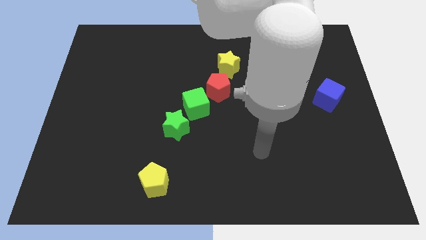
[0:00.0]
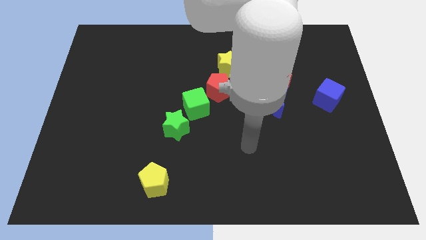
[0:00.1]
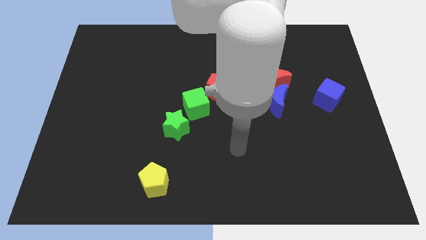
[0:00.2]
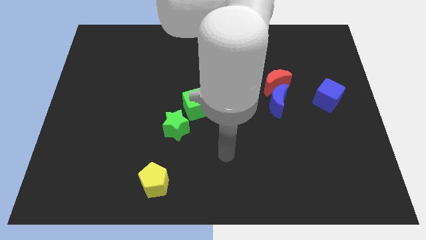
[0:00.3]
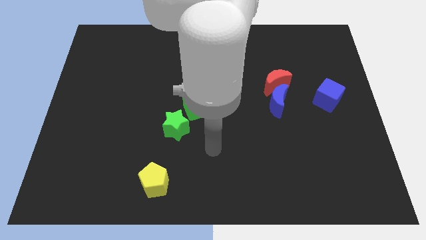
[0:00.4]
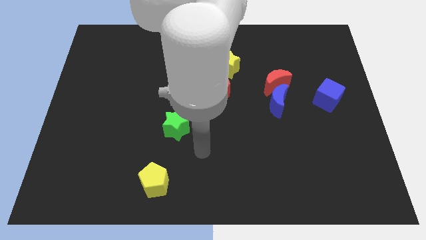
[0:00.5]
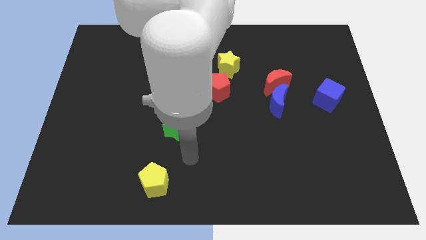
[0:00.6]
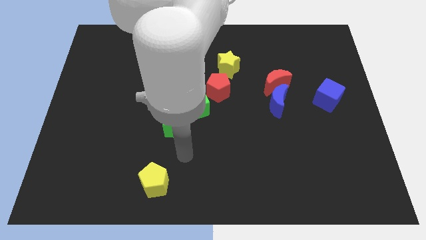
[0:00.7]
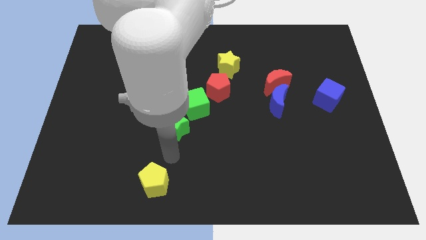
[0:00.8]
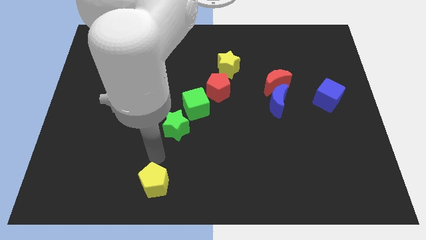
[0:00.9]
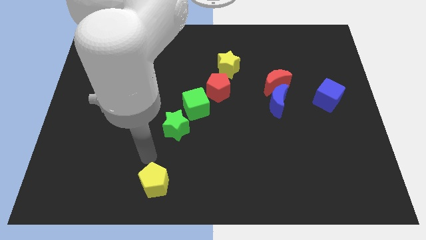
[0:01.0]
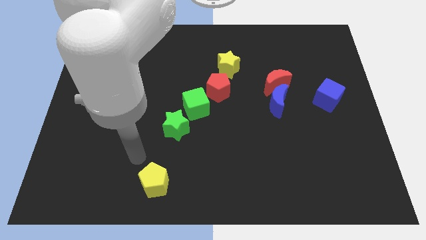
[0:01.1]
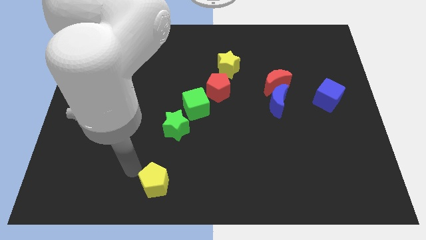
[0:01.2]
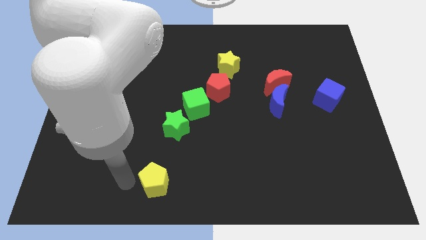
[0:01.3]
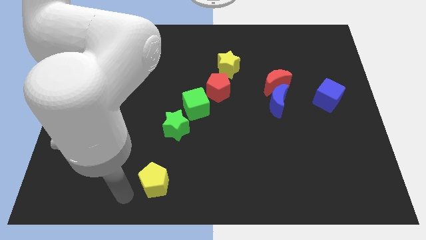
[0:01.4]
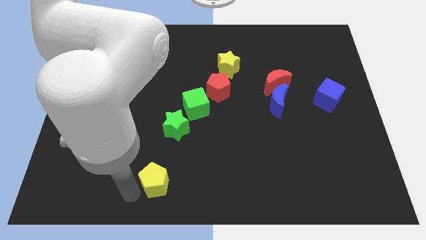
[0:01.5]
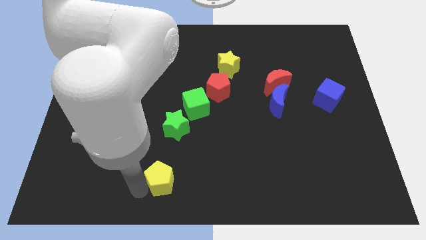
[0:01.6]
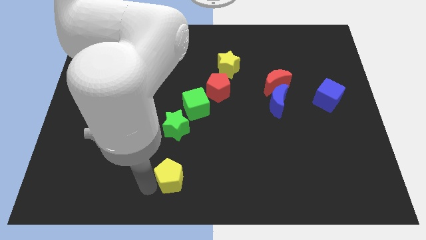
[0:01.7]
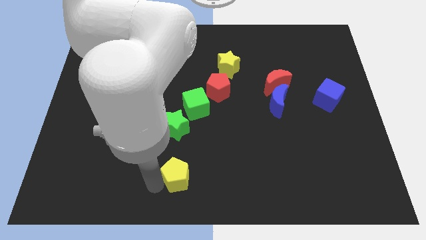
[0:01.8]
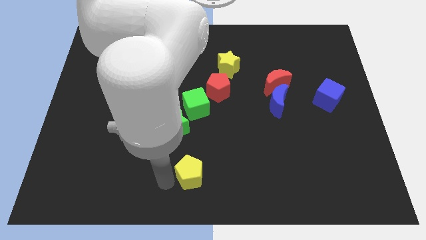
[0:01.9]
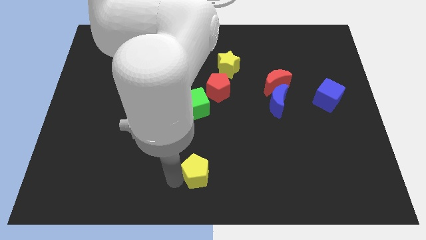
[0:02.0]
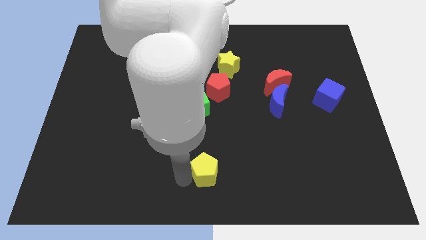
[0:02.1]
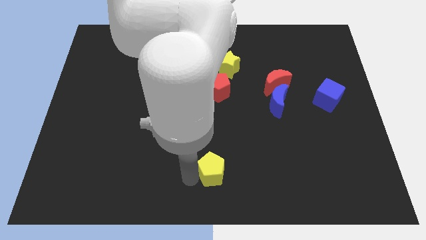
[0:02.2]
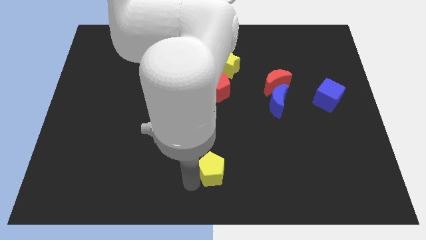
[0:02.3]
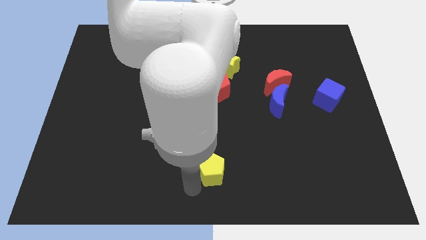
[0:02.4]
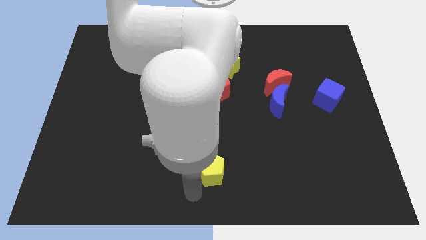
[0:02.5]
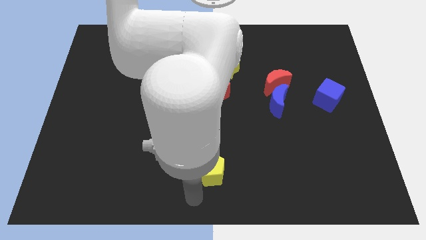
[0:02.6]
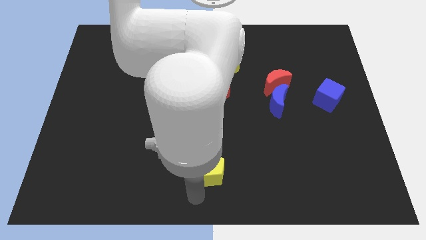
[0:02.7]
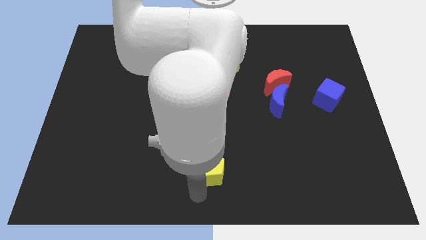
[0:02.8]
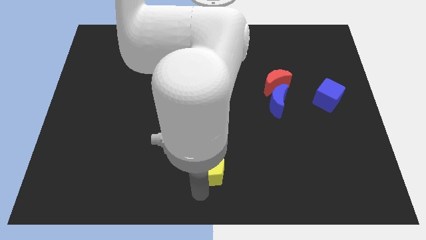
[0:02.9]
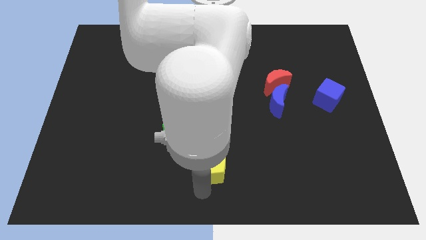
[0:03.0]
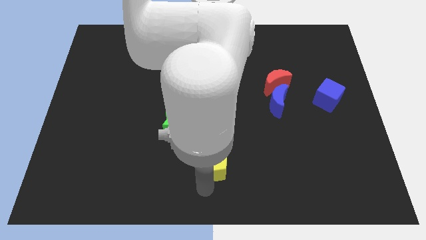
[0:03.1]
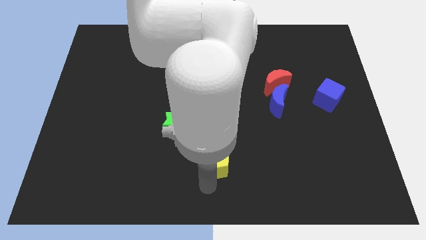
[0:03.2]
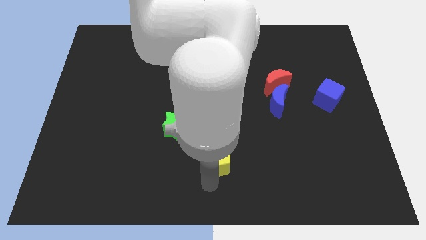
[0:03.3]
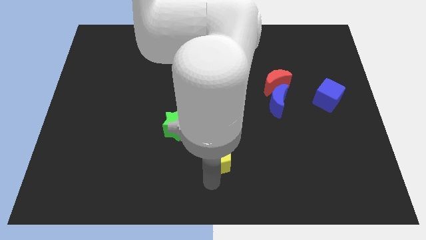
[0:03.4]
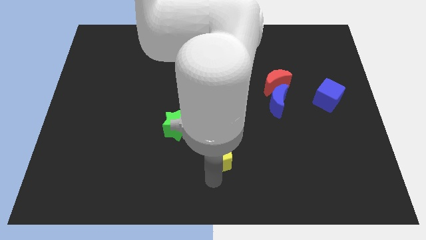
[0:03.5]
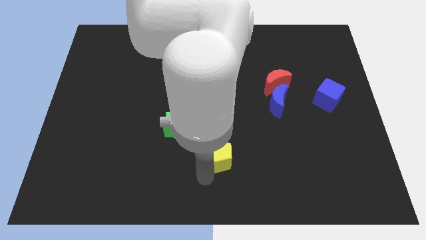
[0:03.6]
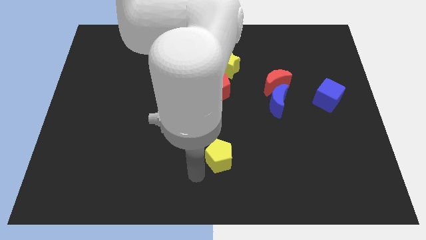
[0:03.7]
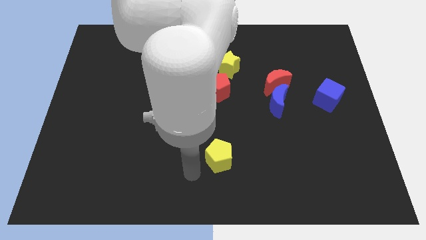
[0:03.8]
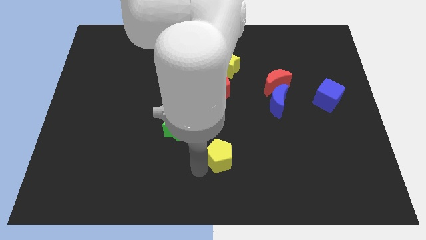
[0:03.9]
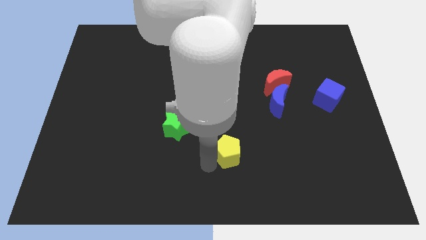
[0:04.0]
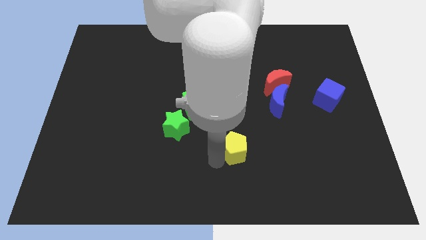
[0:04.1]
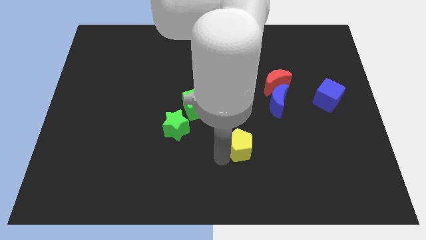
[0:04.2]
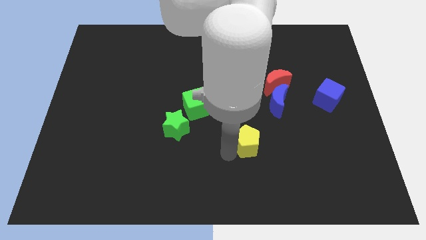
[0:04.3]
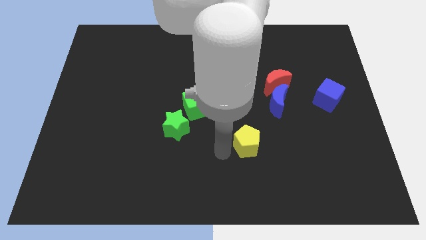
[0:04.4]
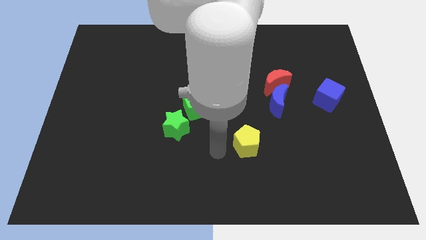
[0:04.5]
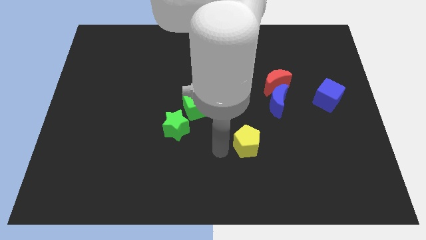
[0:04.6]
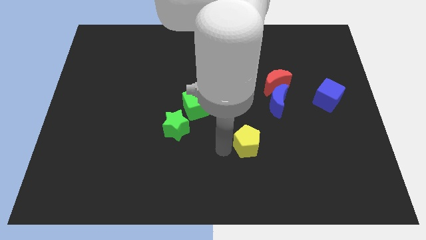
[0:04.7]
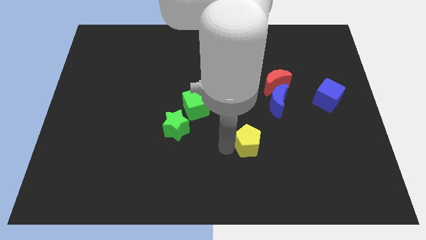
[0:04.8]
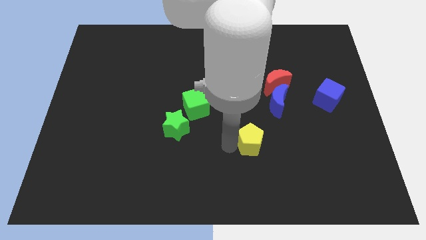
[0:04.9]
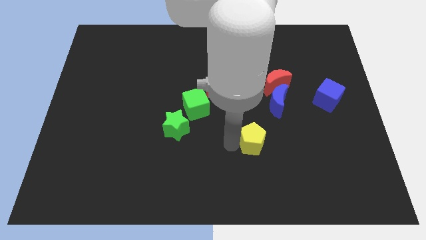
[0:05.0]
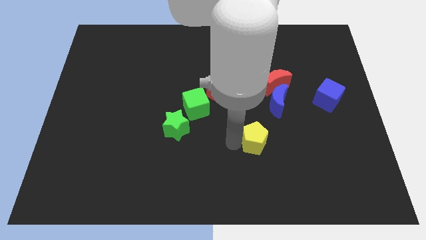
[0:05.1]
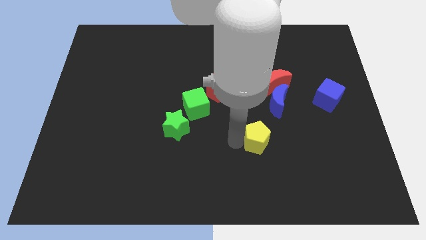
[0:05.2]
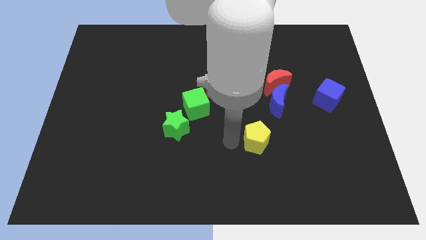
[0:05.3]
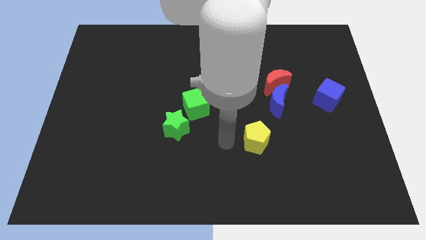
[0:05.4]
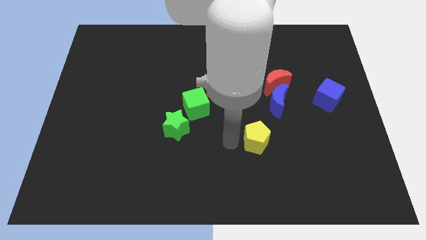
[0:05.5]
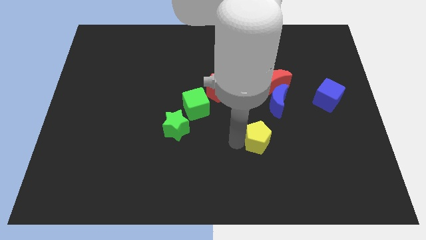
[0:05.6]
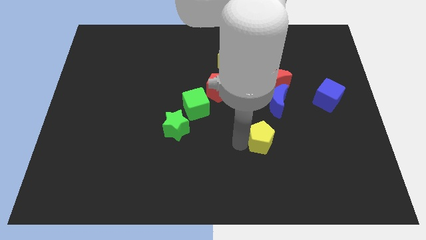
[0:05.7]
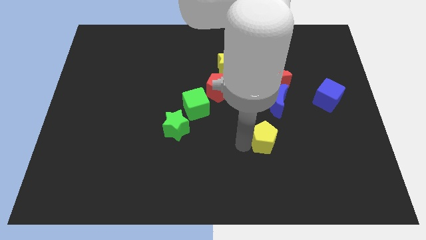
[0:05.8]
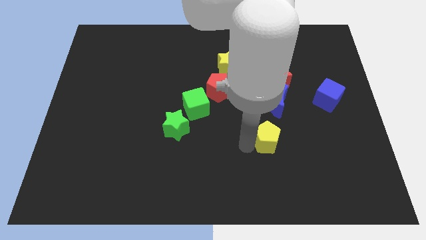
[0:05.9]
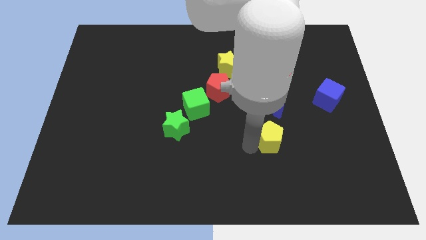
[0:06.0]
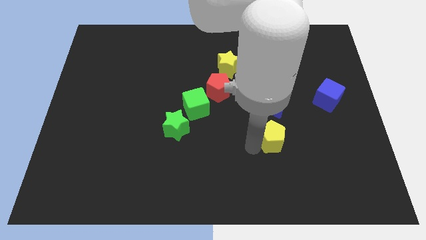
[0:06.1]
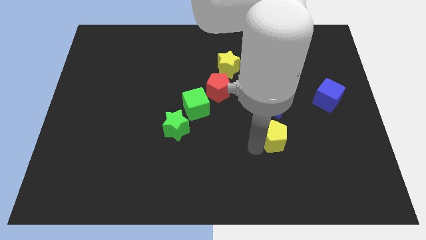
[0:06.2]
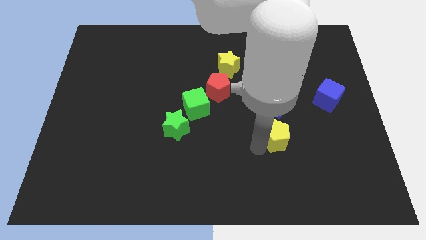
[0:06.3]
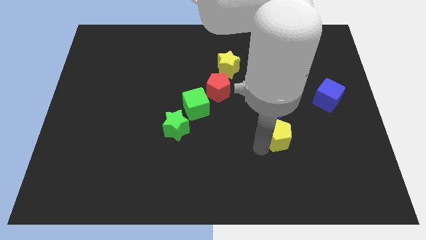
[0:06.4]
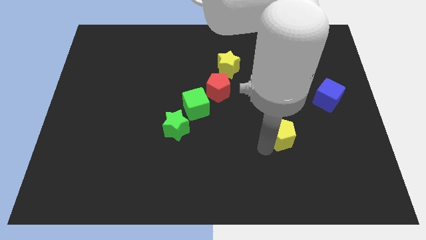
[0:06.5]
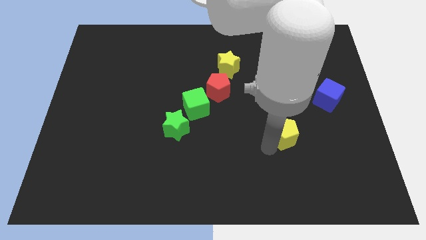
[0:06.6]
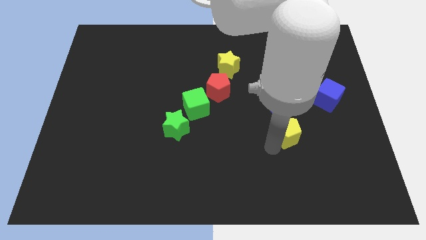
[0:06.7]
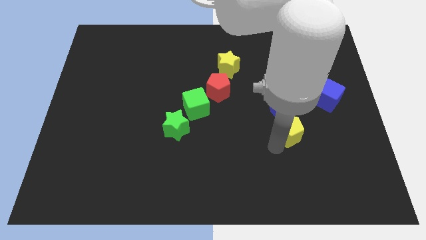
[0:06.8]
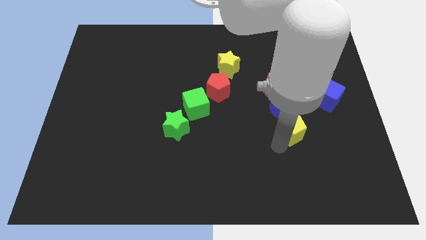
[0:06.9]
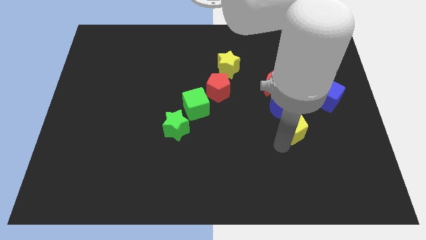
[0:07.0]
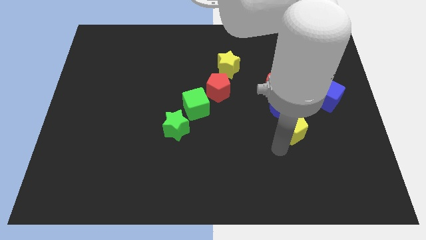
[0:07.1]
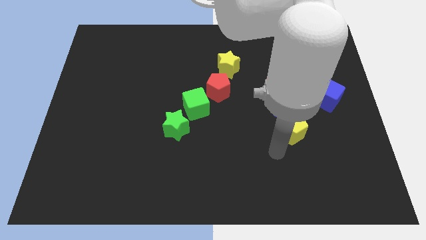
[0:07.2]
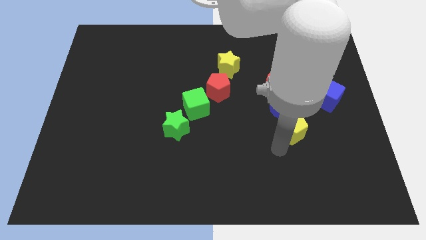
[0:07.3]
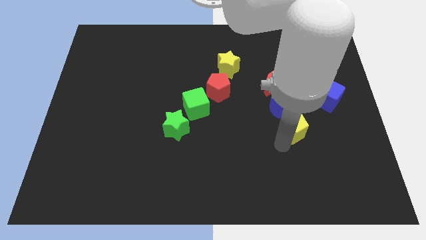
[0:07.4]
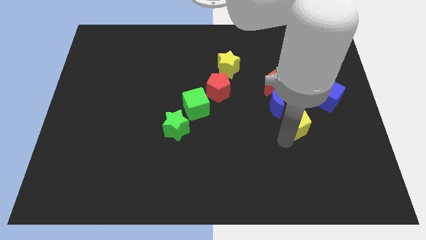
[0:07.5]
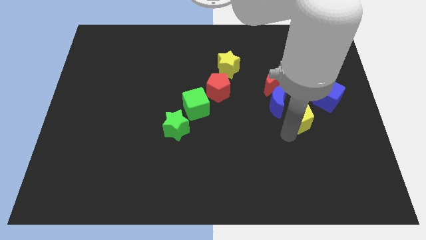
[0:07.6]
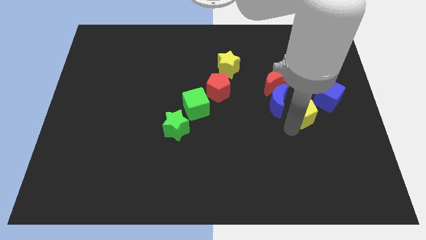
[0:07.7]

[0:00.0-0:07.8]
move the yellow pentagon diagonally down and to the right of the red moon
